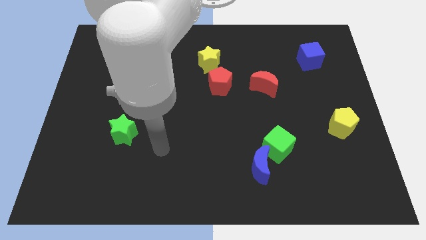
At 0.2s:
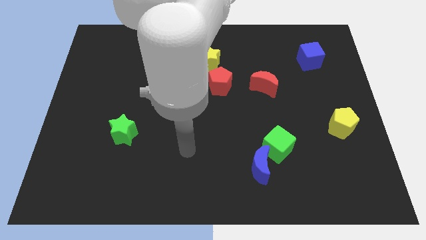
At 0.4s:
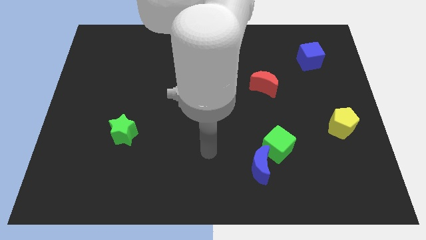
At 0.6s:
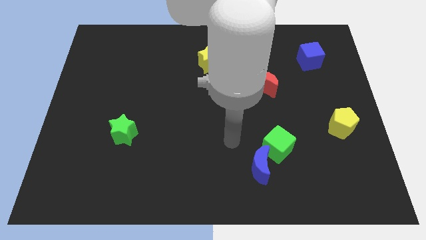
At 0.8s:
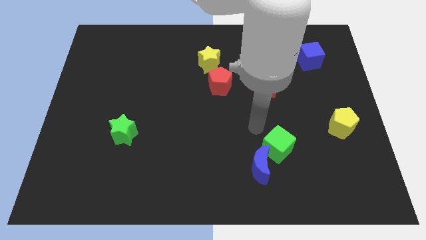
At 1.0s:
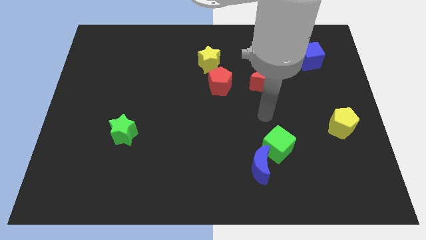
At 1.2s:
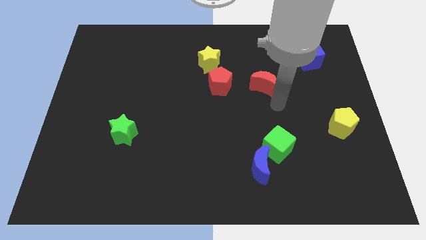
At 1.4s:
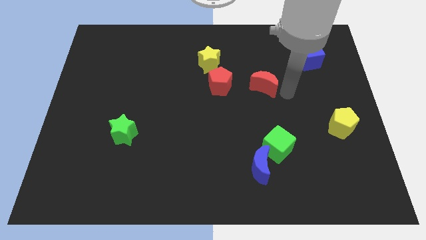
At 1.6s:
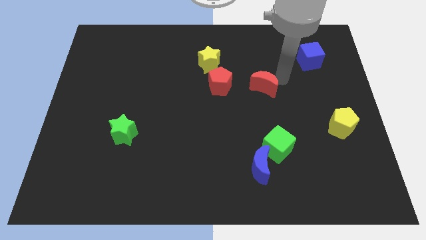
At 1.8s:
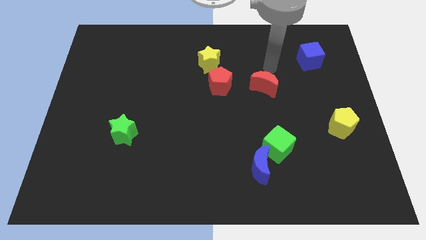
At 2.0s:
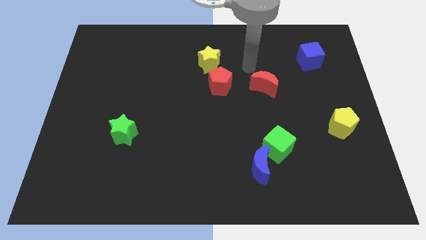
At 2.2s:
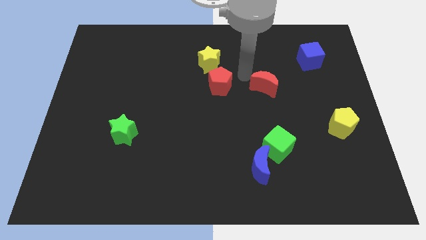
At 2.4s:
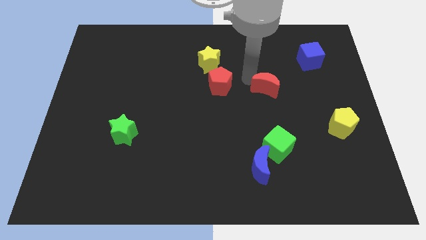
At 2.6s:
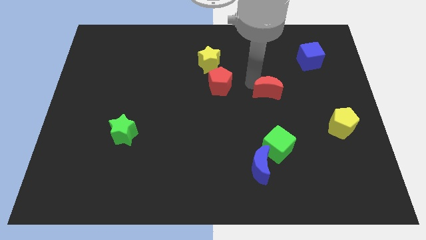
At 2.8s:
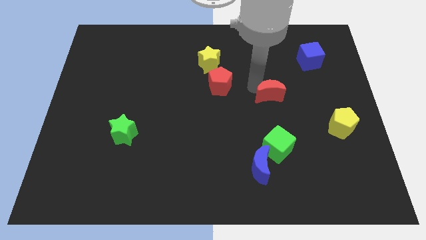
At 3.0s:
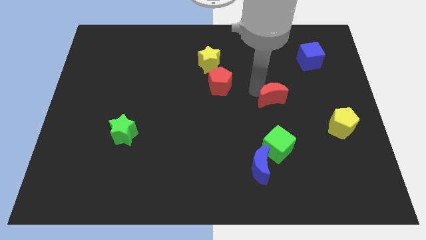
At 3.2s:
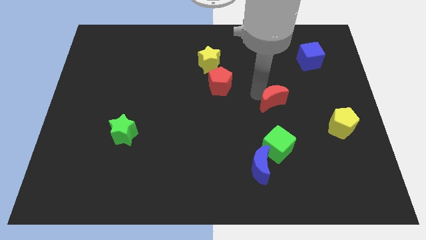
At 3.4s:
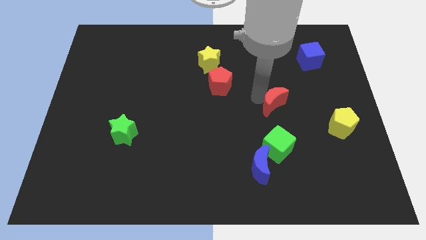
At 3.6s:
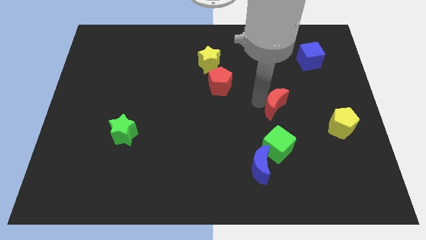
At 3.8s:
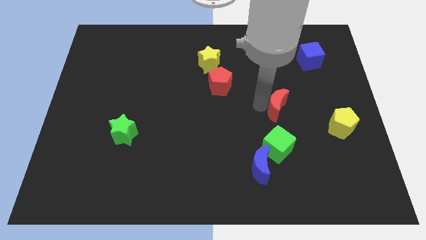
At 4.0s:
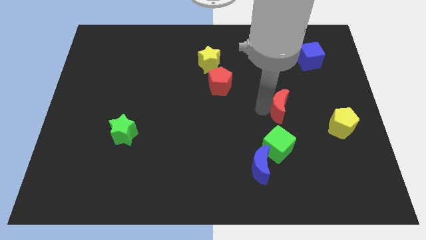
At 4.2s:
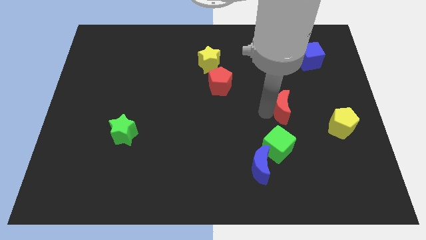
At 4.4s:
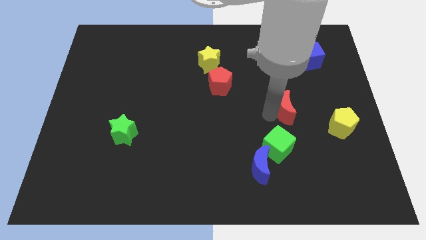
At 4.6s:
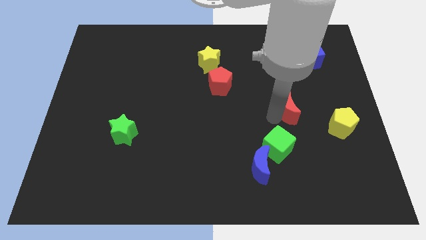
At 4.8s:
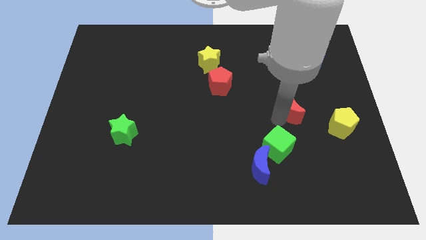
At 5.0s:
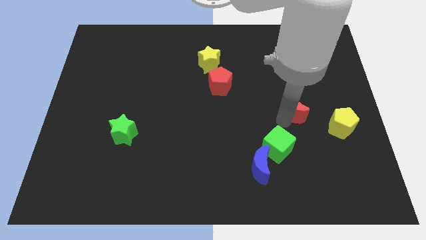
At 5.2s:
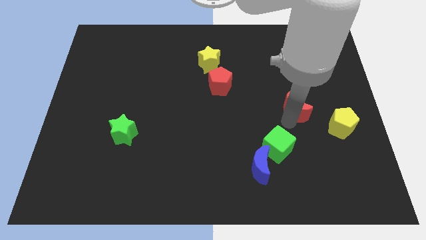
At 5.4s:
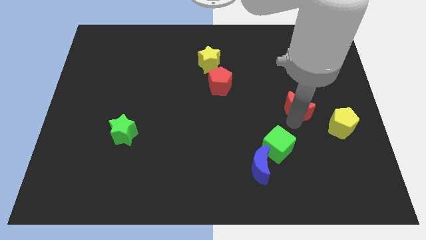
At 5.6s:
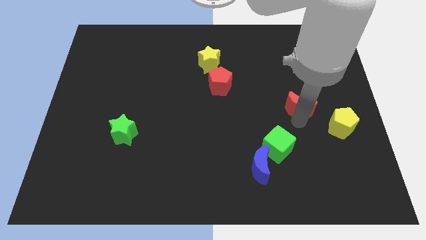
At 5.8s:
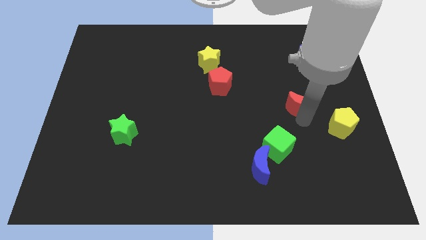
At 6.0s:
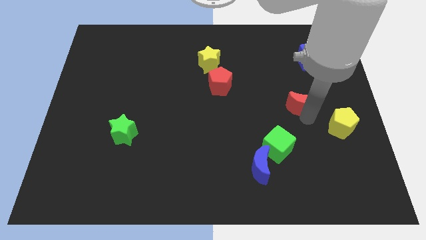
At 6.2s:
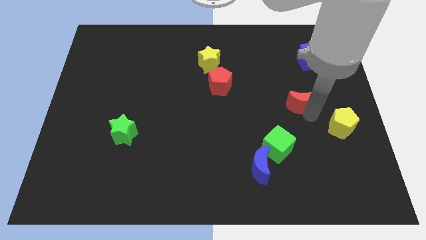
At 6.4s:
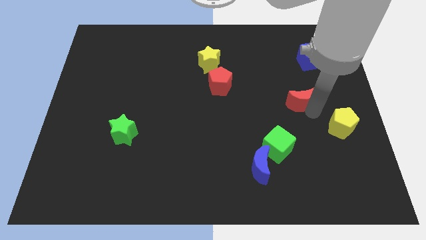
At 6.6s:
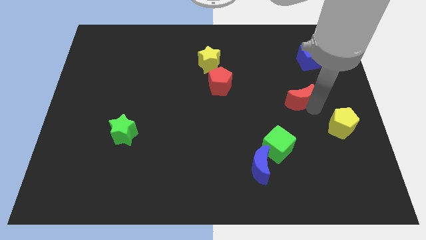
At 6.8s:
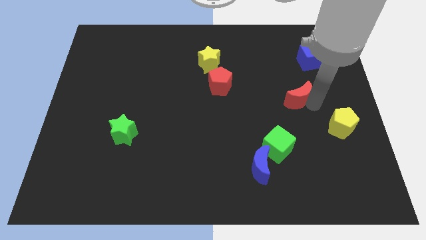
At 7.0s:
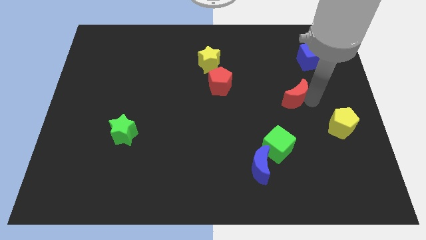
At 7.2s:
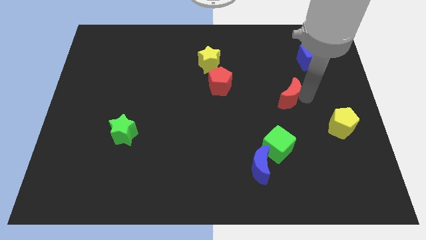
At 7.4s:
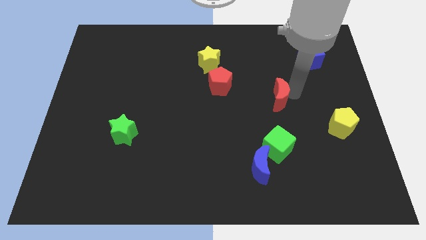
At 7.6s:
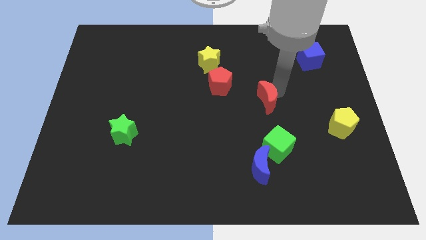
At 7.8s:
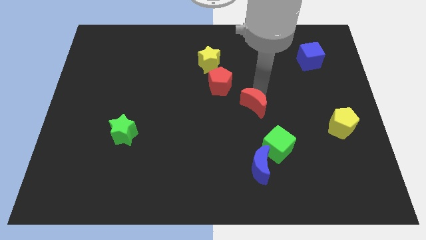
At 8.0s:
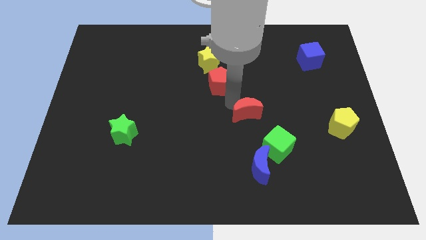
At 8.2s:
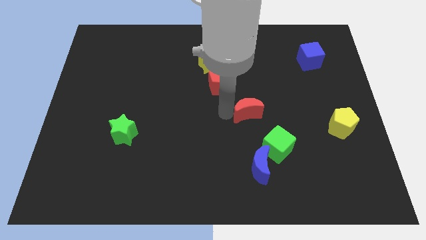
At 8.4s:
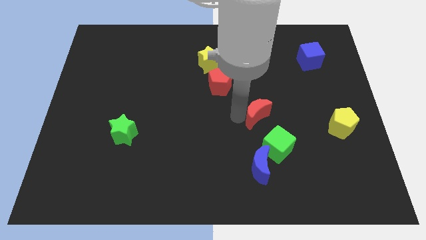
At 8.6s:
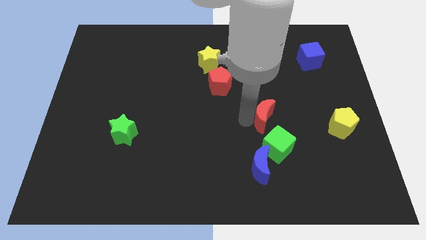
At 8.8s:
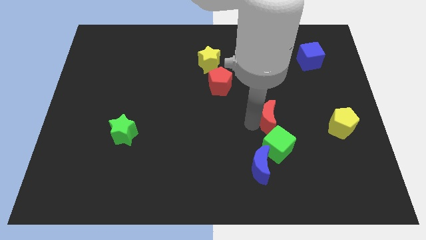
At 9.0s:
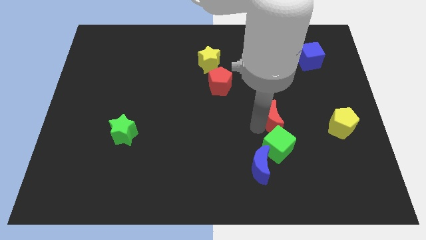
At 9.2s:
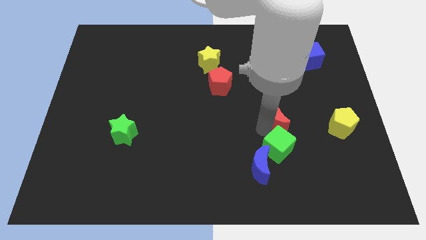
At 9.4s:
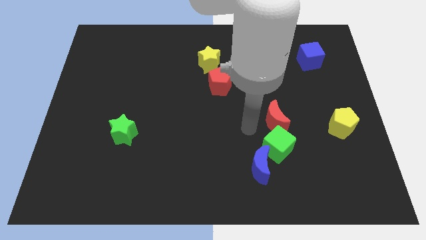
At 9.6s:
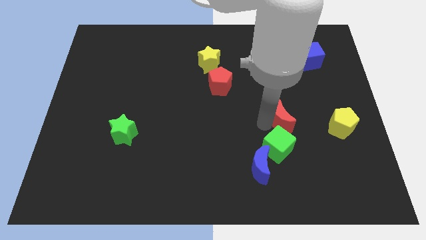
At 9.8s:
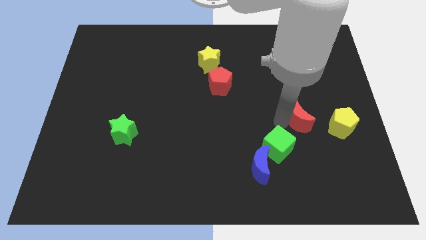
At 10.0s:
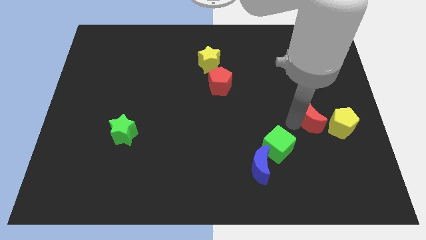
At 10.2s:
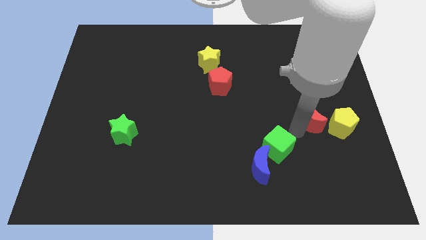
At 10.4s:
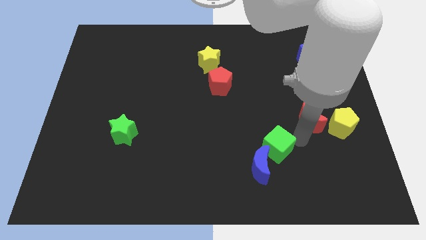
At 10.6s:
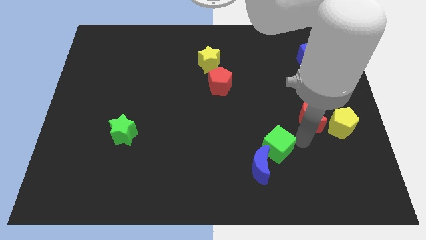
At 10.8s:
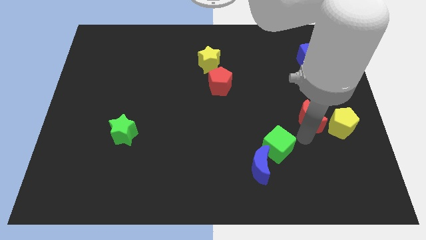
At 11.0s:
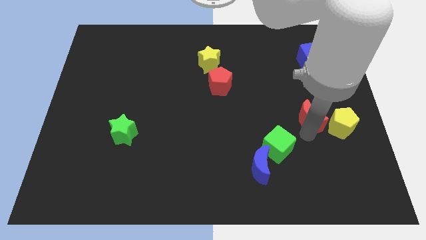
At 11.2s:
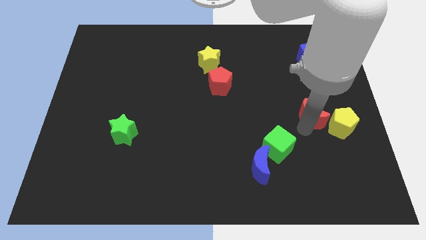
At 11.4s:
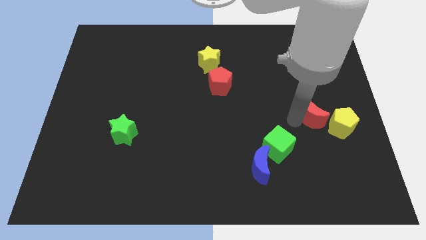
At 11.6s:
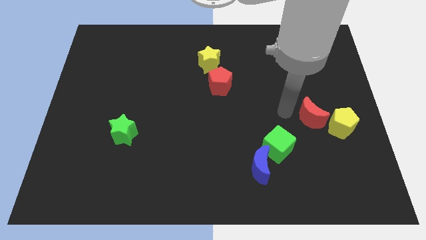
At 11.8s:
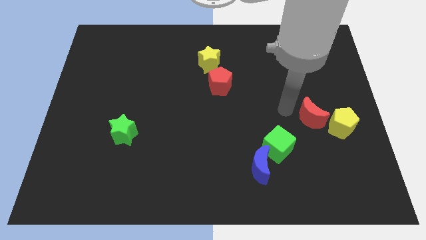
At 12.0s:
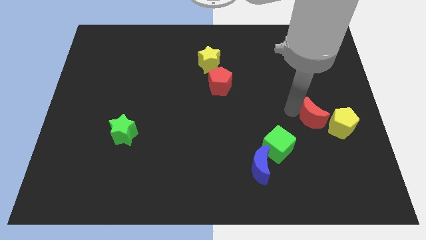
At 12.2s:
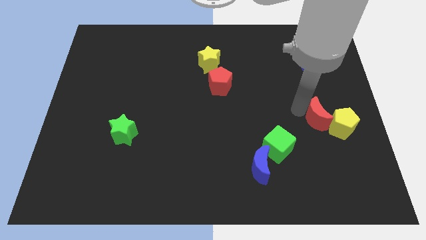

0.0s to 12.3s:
push the red moon close to the yellow pentagon

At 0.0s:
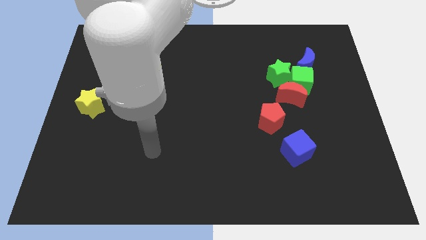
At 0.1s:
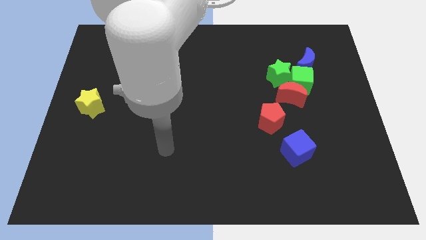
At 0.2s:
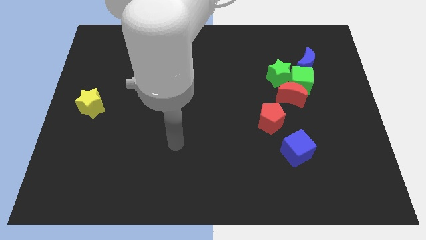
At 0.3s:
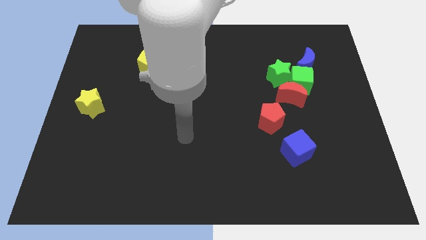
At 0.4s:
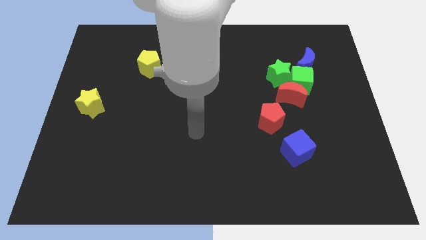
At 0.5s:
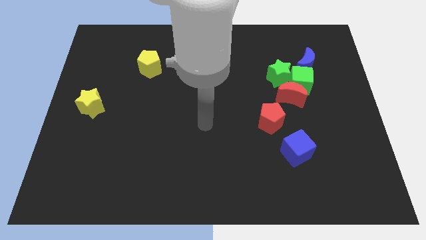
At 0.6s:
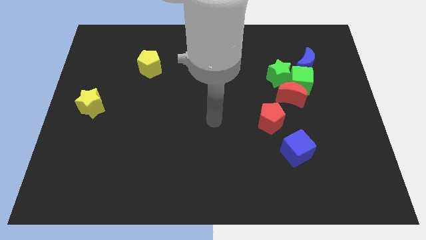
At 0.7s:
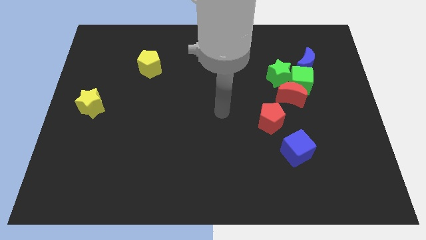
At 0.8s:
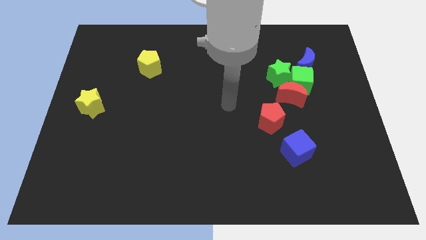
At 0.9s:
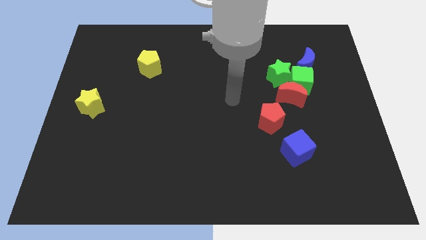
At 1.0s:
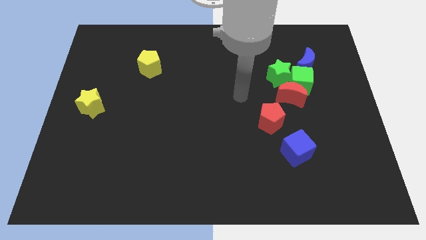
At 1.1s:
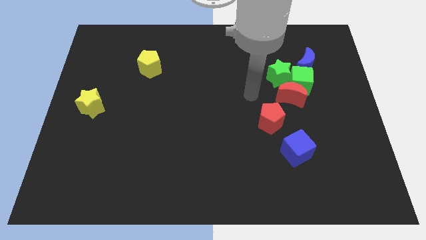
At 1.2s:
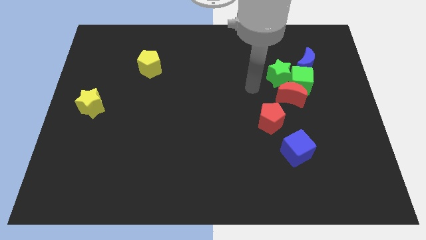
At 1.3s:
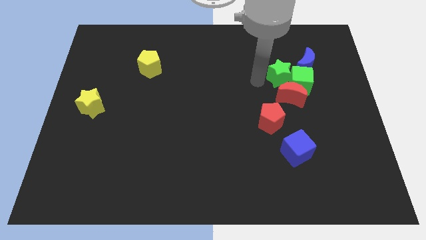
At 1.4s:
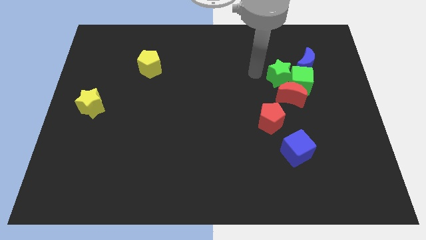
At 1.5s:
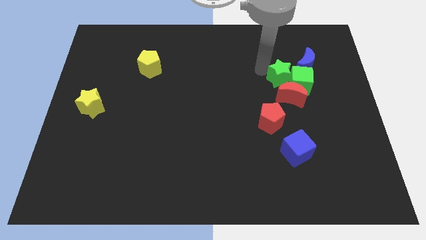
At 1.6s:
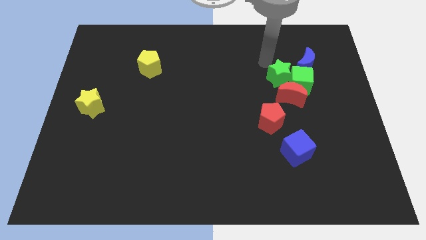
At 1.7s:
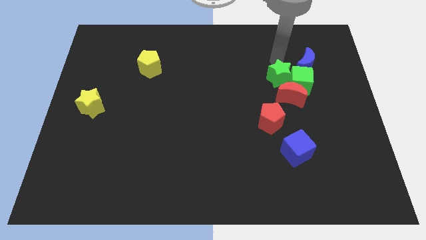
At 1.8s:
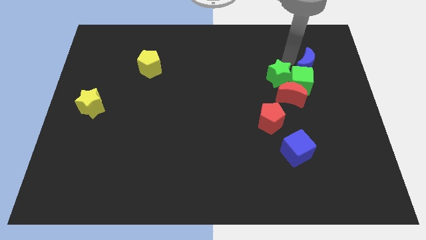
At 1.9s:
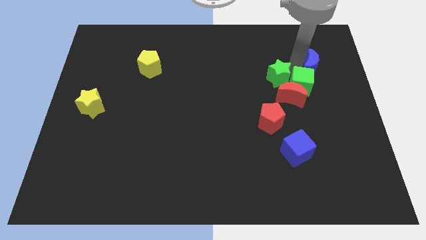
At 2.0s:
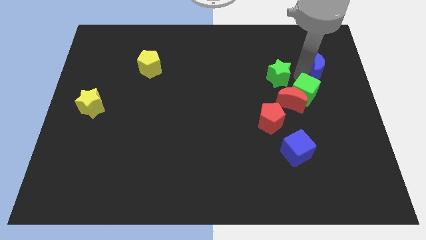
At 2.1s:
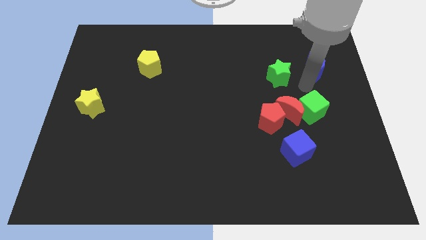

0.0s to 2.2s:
move the red moon towards the red pentagon
